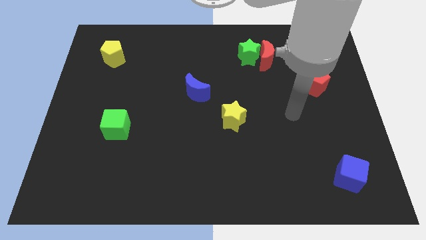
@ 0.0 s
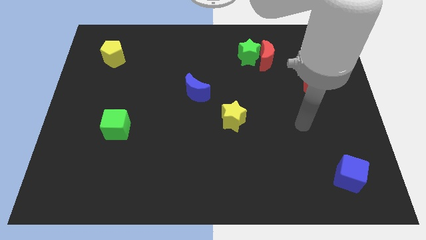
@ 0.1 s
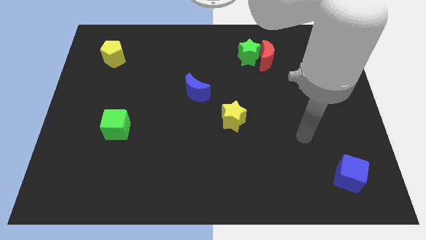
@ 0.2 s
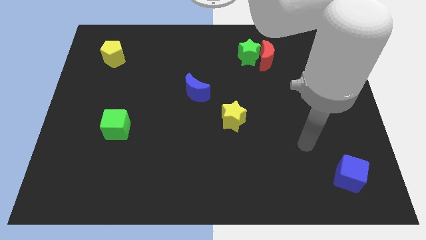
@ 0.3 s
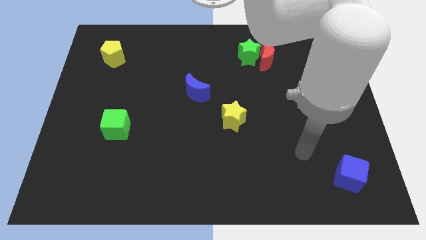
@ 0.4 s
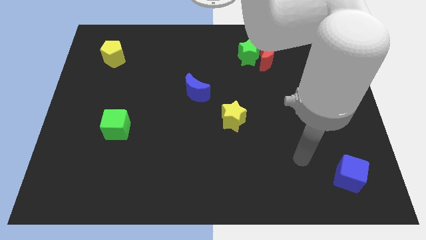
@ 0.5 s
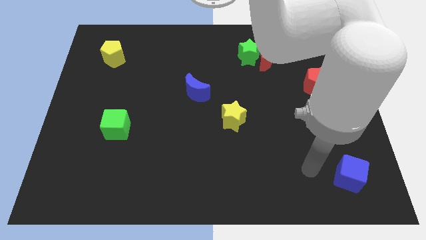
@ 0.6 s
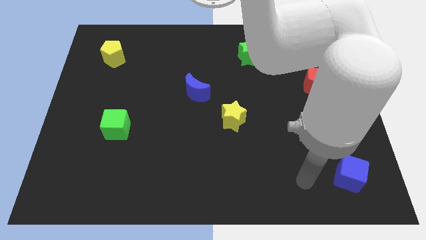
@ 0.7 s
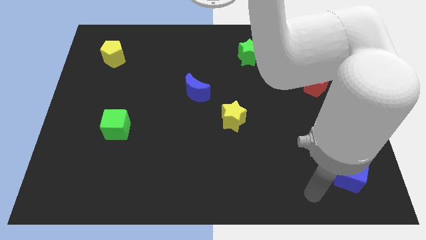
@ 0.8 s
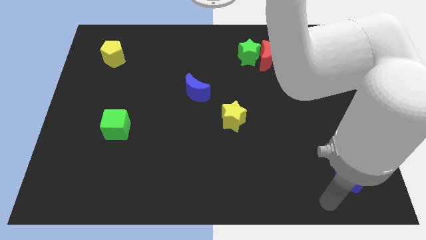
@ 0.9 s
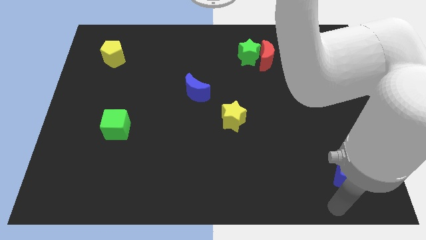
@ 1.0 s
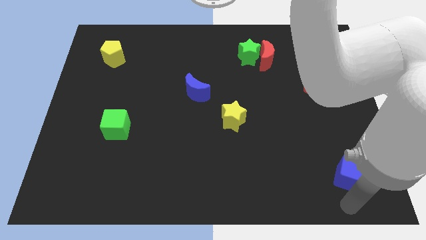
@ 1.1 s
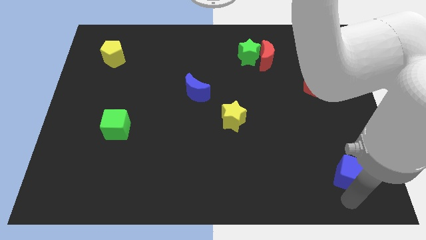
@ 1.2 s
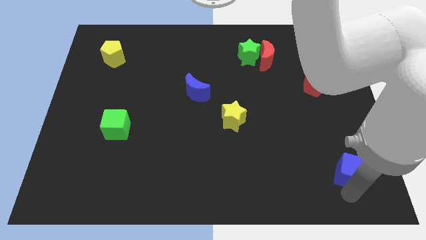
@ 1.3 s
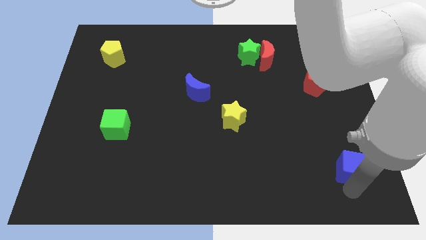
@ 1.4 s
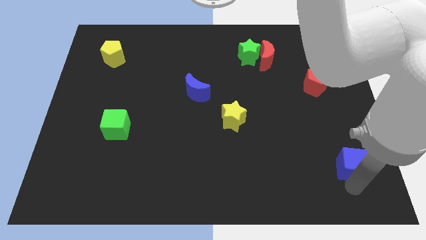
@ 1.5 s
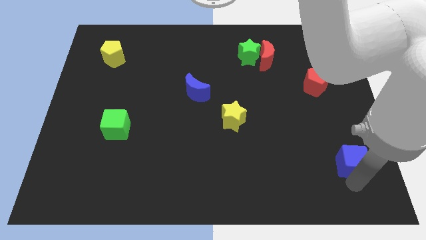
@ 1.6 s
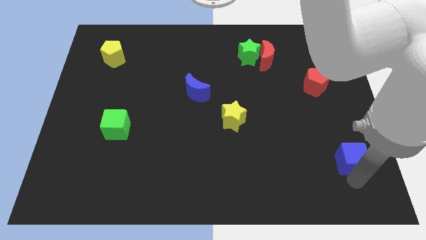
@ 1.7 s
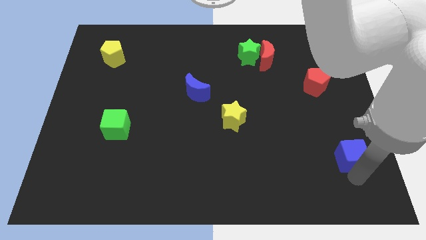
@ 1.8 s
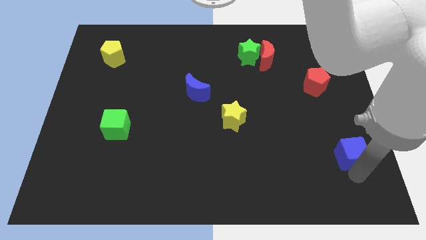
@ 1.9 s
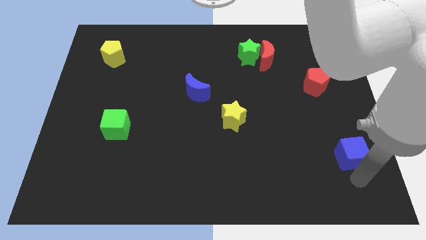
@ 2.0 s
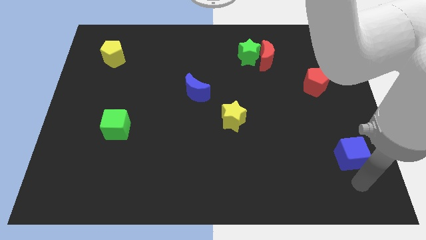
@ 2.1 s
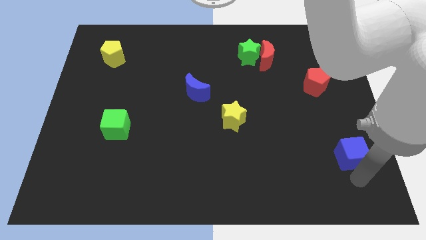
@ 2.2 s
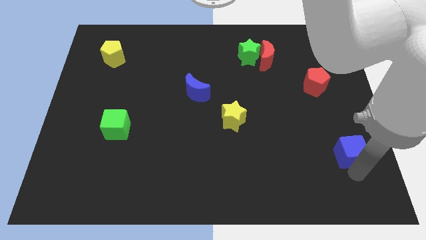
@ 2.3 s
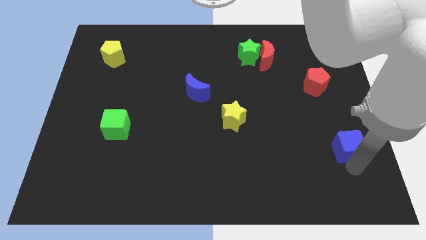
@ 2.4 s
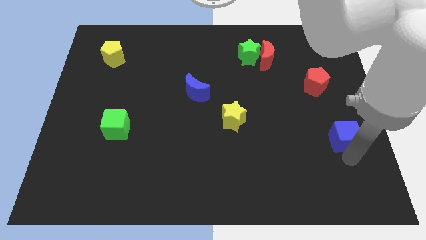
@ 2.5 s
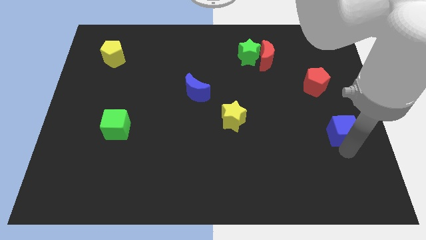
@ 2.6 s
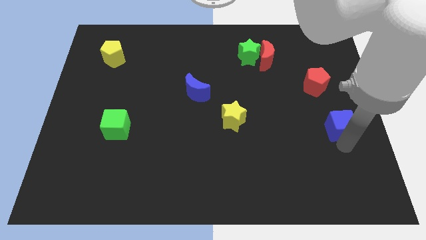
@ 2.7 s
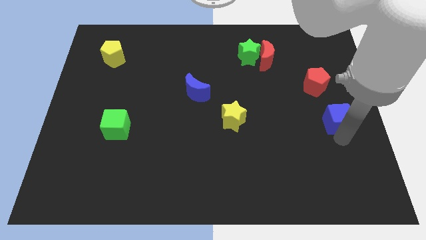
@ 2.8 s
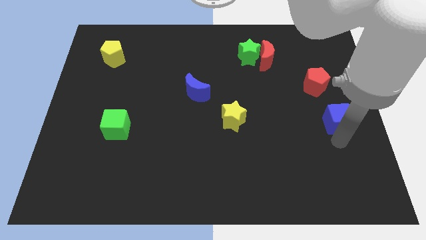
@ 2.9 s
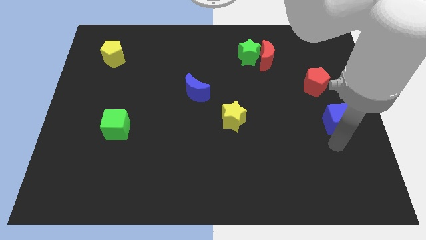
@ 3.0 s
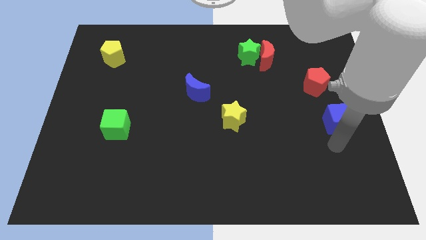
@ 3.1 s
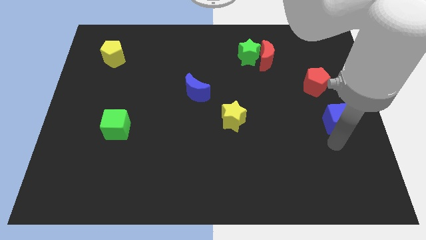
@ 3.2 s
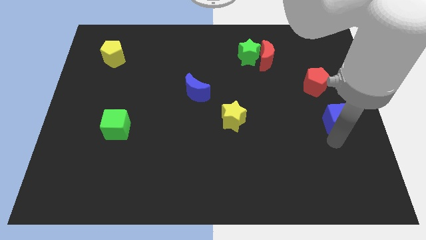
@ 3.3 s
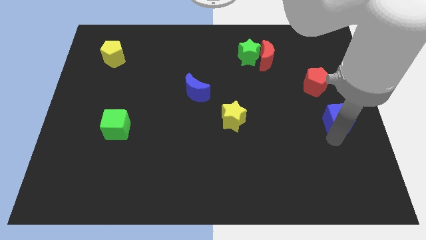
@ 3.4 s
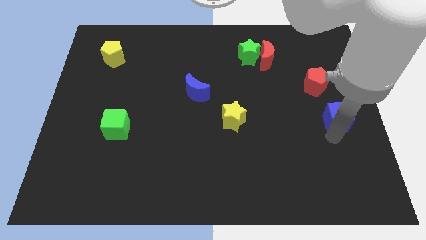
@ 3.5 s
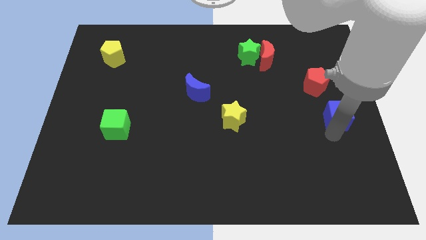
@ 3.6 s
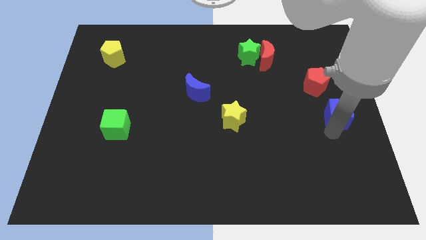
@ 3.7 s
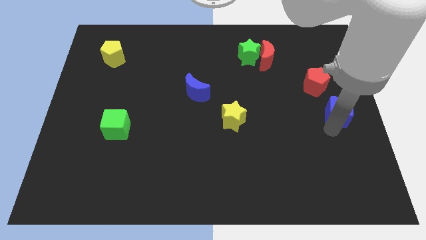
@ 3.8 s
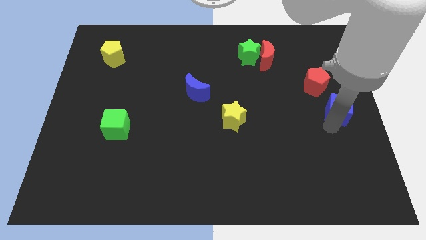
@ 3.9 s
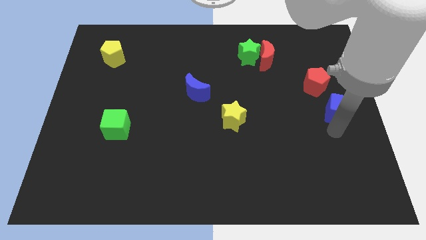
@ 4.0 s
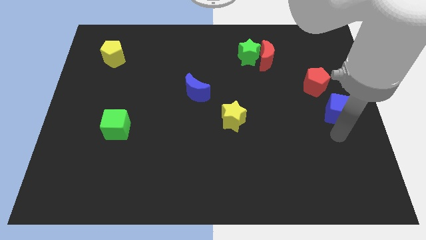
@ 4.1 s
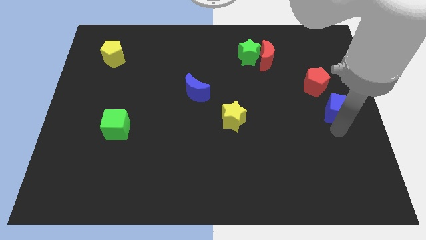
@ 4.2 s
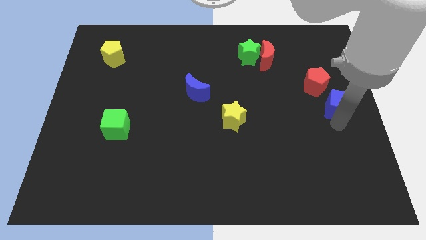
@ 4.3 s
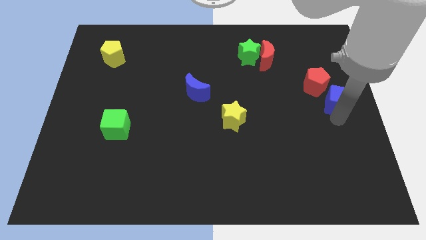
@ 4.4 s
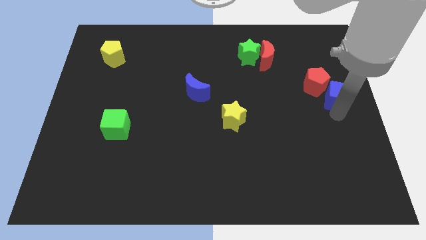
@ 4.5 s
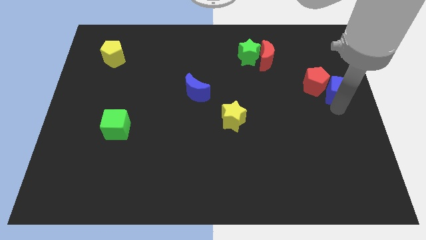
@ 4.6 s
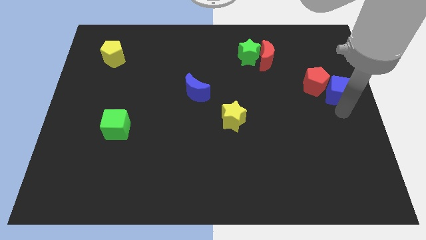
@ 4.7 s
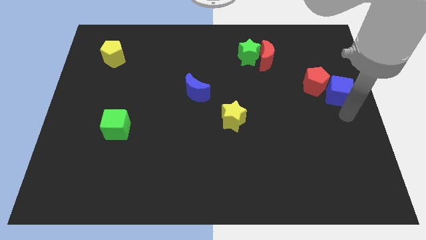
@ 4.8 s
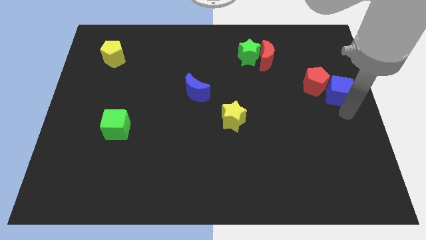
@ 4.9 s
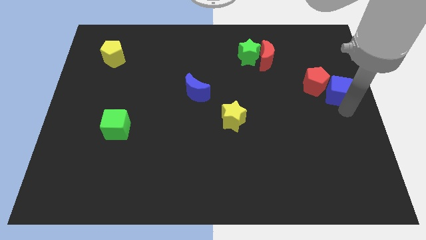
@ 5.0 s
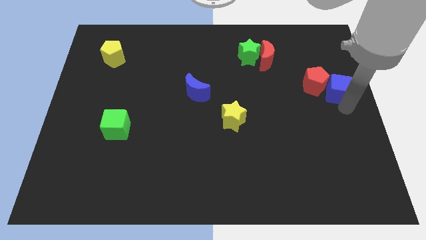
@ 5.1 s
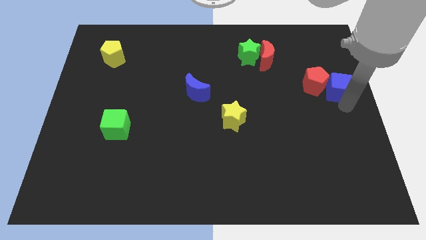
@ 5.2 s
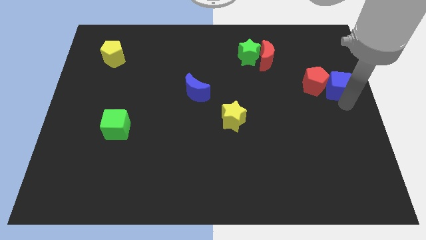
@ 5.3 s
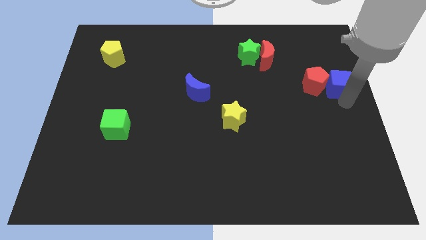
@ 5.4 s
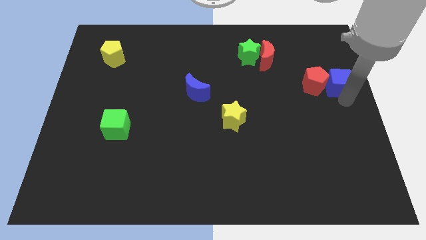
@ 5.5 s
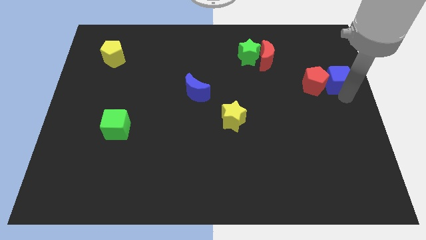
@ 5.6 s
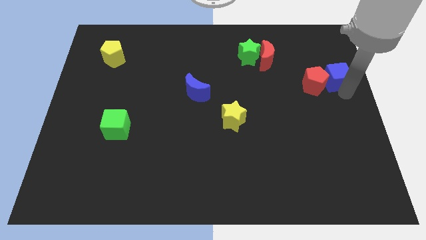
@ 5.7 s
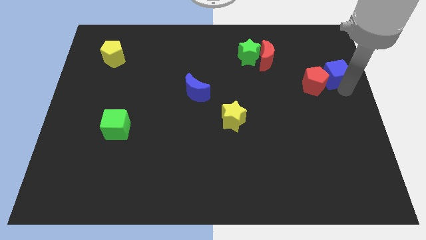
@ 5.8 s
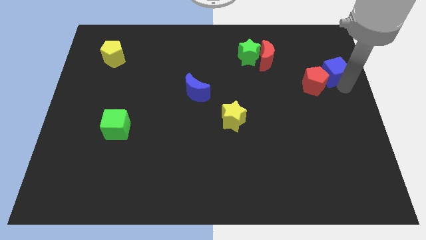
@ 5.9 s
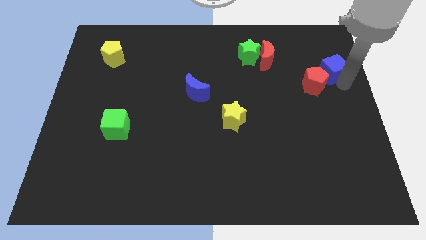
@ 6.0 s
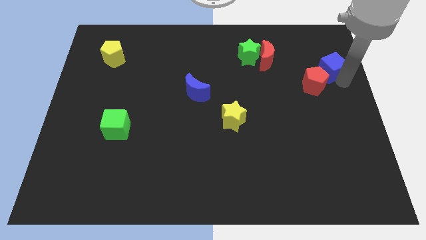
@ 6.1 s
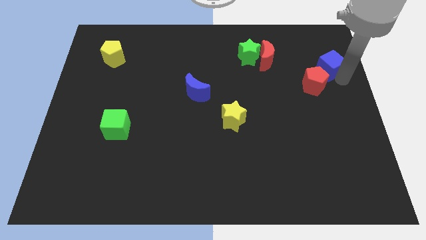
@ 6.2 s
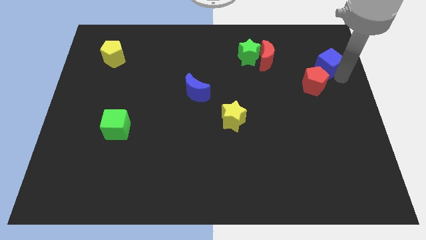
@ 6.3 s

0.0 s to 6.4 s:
push the blue cube just right of the red moon

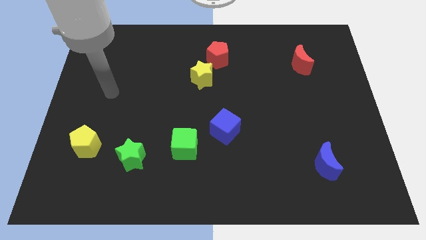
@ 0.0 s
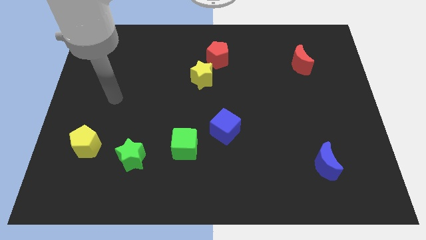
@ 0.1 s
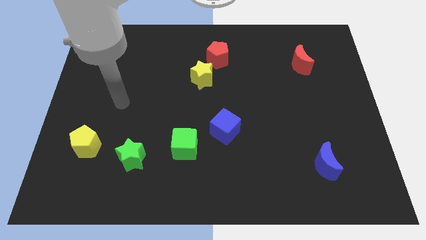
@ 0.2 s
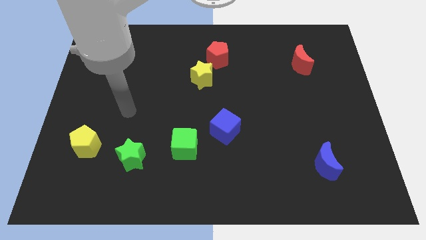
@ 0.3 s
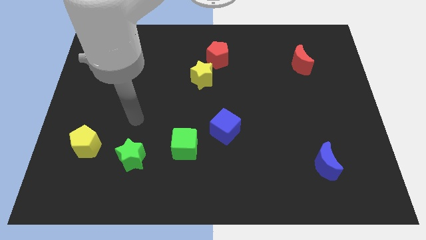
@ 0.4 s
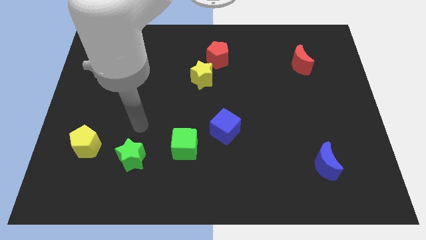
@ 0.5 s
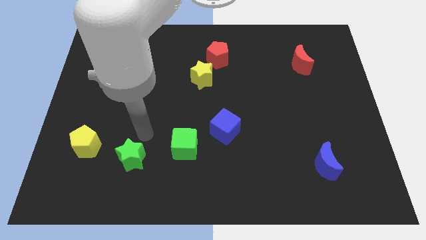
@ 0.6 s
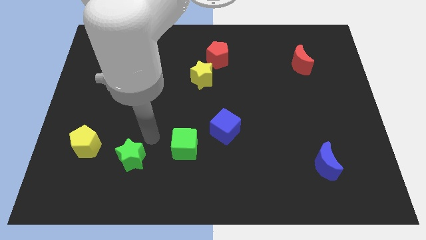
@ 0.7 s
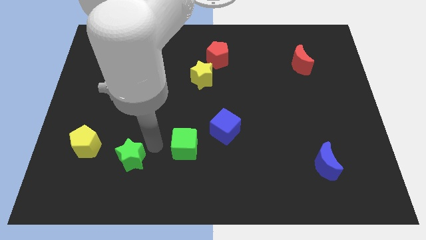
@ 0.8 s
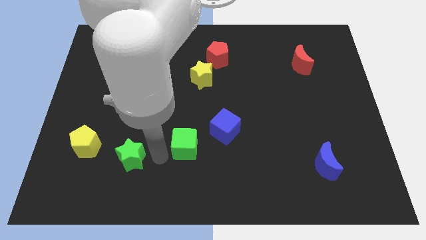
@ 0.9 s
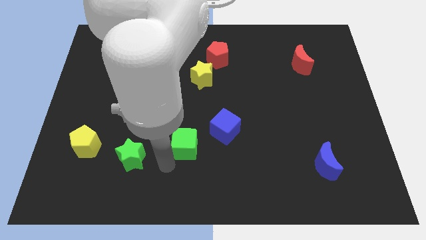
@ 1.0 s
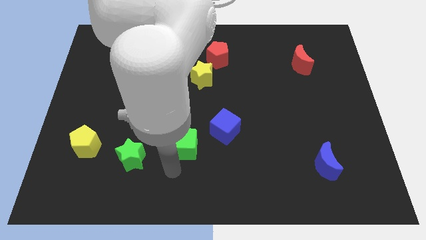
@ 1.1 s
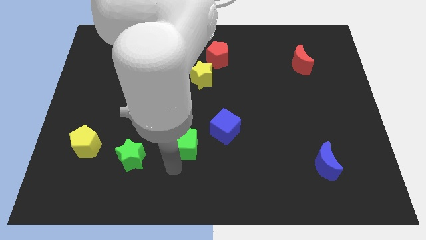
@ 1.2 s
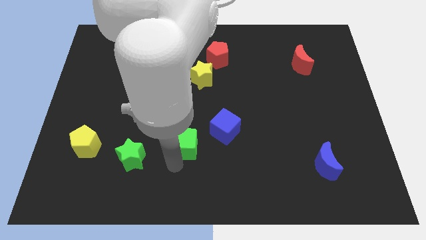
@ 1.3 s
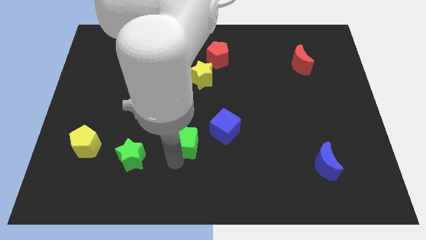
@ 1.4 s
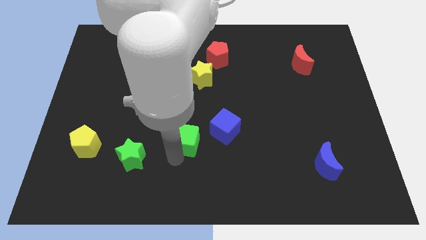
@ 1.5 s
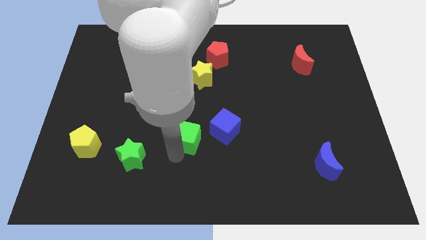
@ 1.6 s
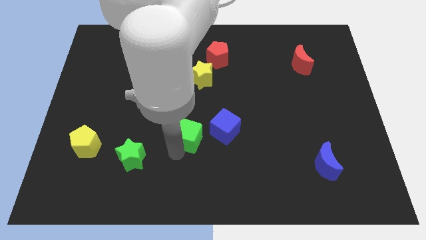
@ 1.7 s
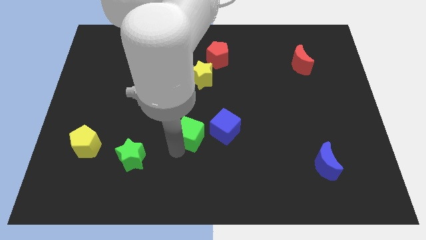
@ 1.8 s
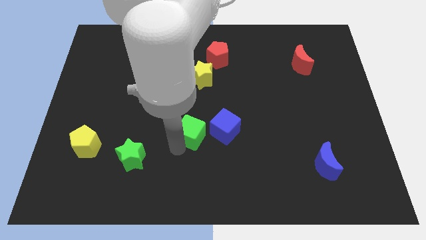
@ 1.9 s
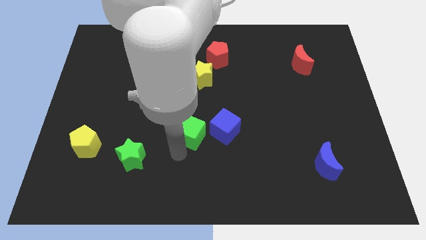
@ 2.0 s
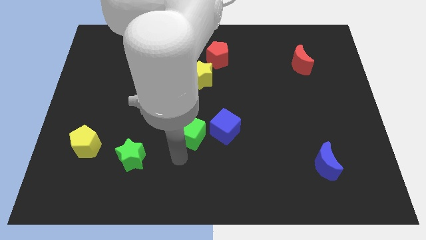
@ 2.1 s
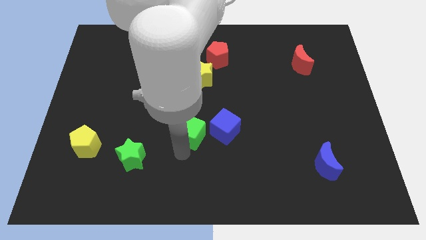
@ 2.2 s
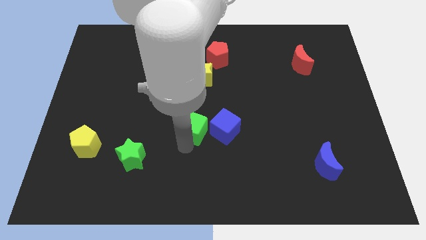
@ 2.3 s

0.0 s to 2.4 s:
push the green cube below the yellow star
